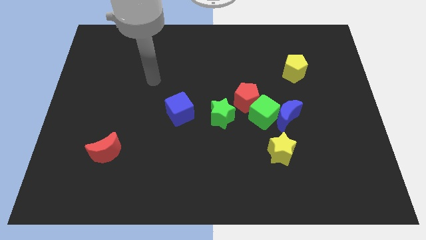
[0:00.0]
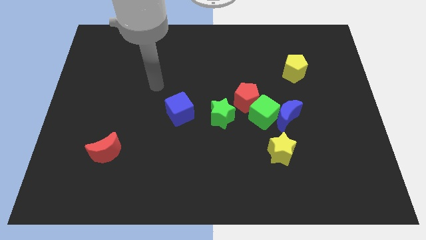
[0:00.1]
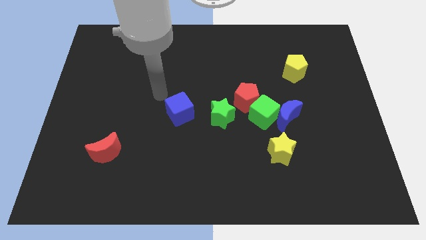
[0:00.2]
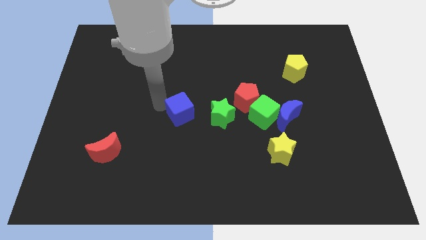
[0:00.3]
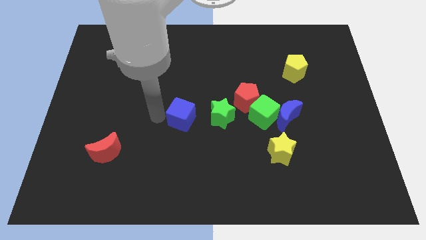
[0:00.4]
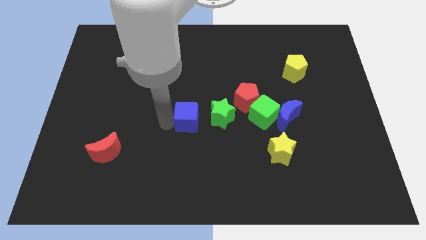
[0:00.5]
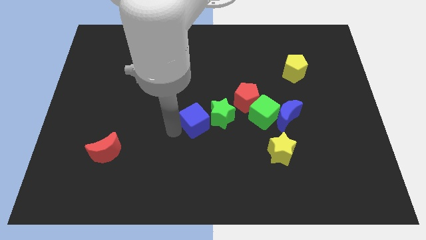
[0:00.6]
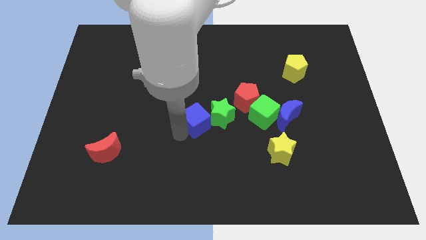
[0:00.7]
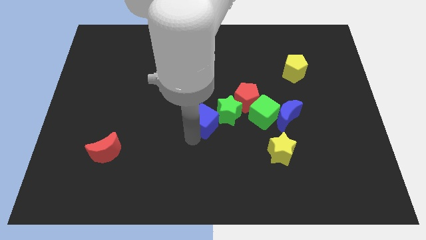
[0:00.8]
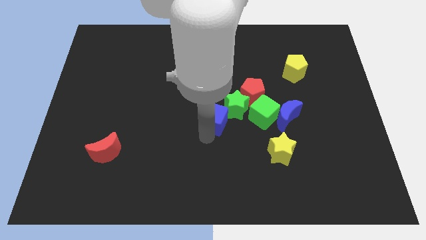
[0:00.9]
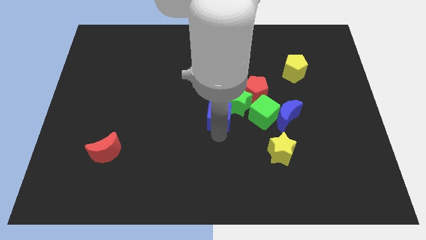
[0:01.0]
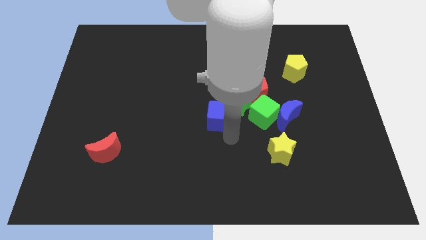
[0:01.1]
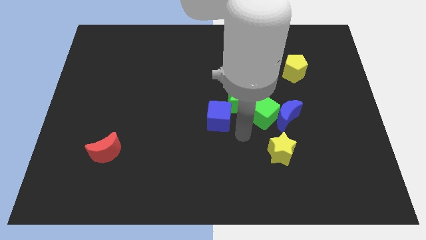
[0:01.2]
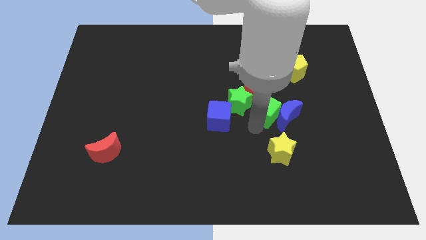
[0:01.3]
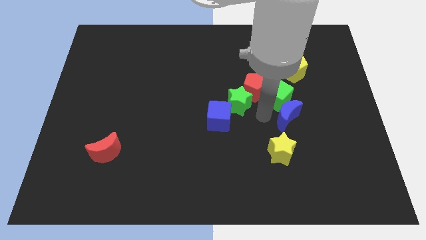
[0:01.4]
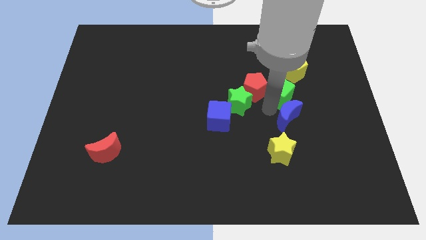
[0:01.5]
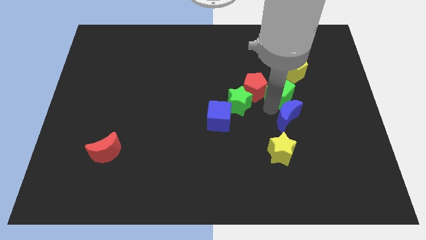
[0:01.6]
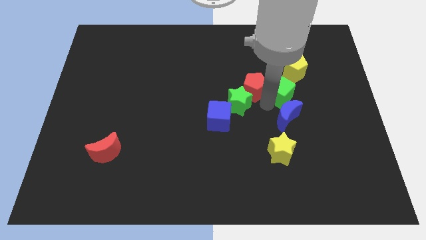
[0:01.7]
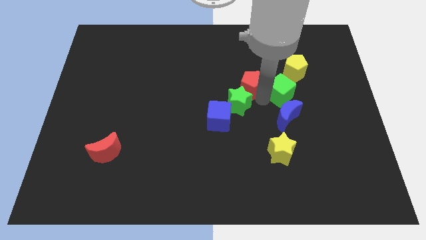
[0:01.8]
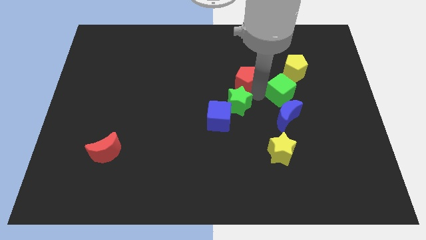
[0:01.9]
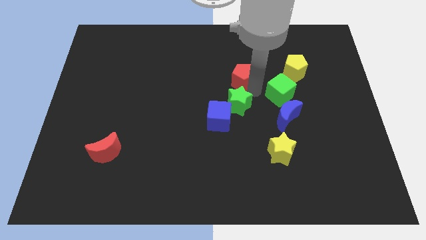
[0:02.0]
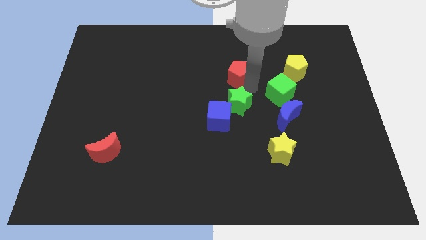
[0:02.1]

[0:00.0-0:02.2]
pull the red pentagon apart from the group of blocks

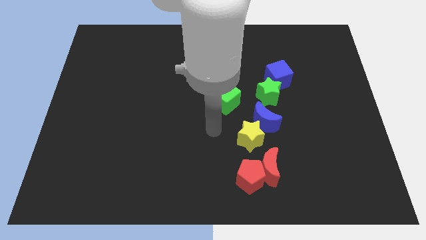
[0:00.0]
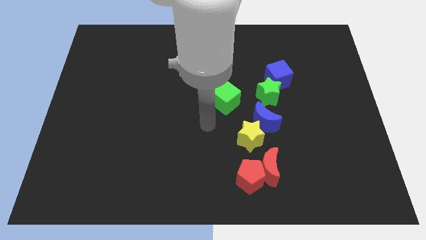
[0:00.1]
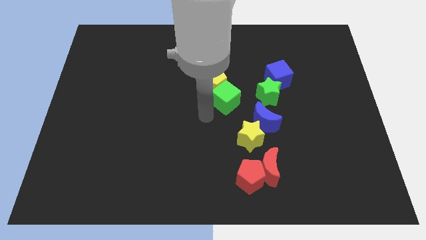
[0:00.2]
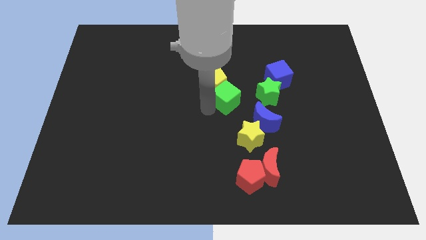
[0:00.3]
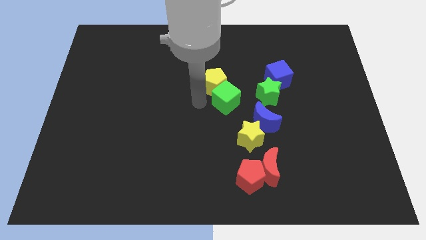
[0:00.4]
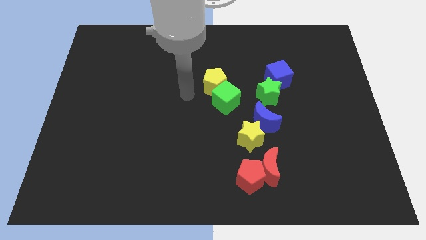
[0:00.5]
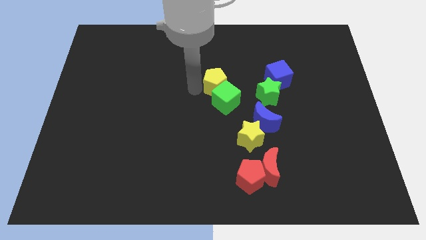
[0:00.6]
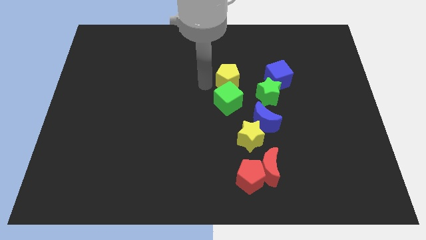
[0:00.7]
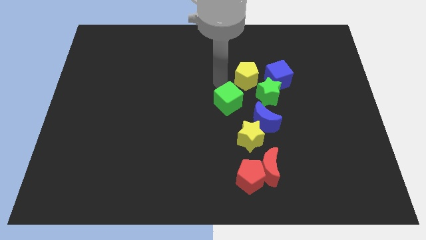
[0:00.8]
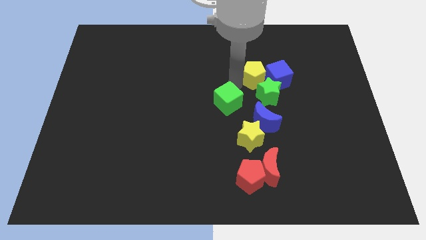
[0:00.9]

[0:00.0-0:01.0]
pull the green cube apart from the yellow pentagon

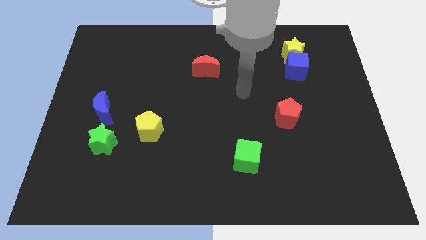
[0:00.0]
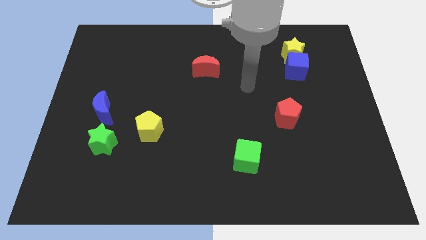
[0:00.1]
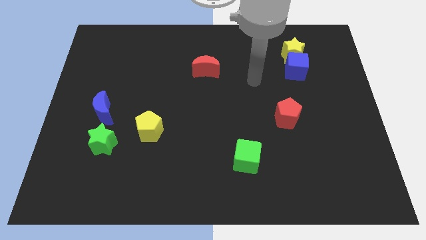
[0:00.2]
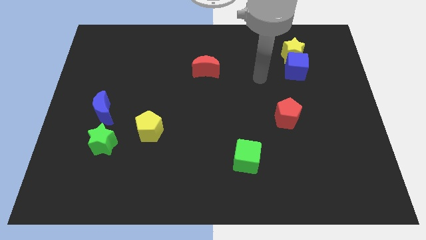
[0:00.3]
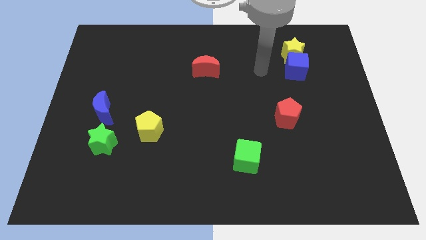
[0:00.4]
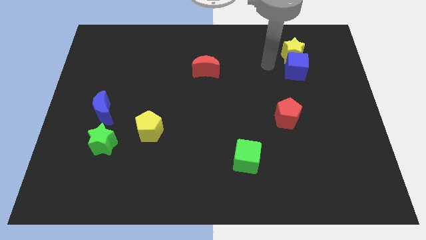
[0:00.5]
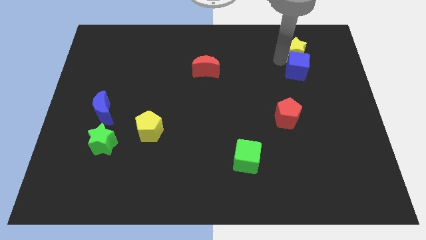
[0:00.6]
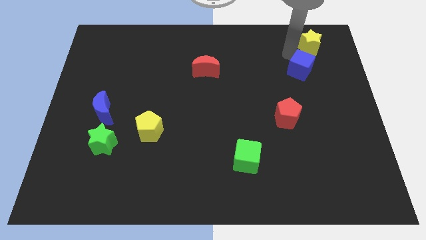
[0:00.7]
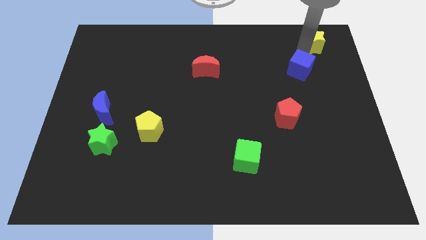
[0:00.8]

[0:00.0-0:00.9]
pull the blue cube apart from the yellow star

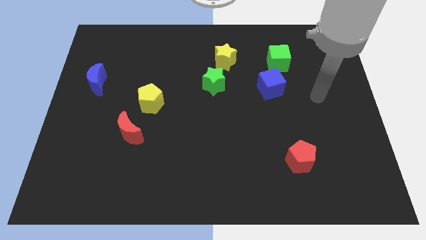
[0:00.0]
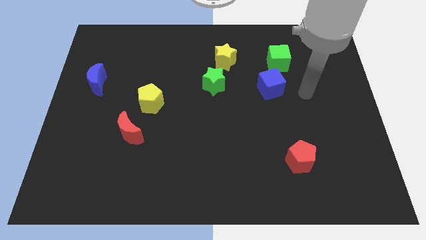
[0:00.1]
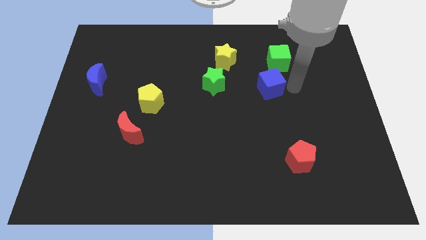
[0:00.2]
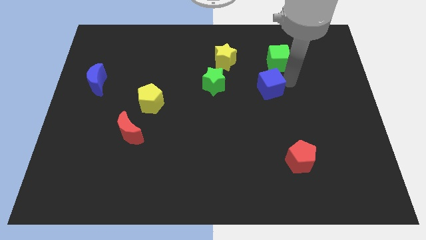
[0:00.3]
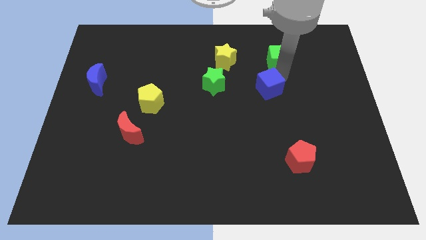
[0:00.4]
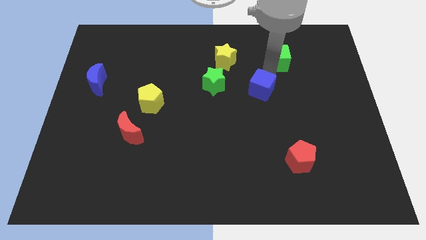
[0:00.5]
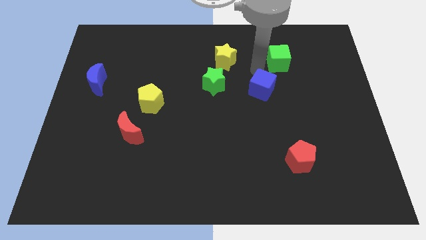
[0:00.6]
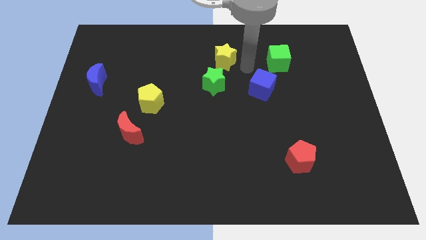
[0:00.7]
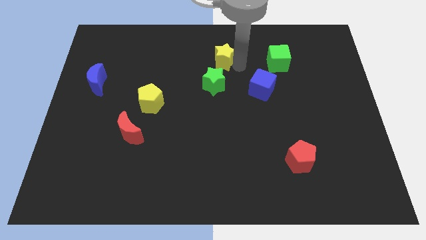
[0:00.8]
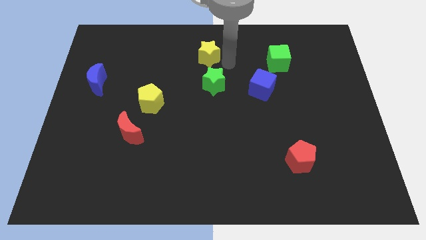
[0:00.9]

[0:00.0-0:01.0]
move the green star away from the yellow star

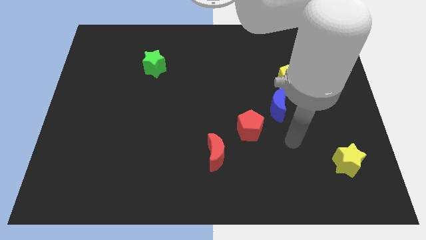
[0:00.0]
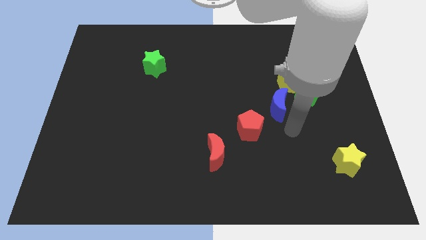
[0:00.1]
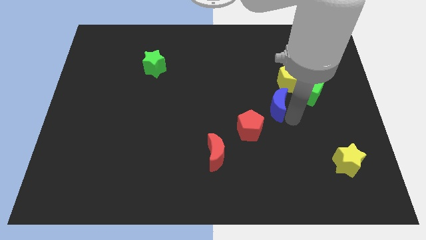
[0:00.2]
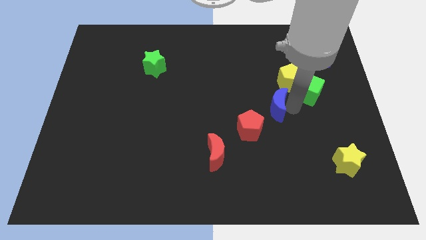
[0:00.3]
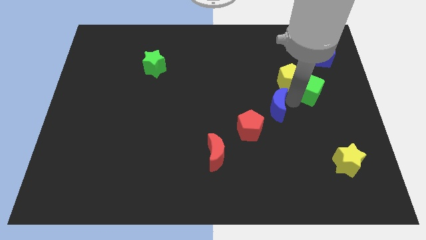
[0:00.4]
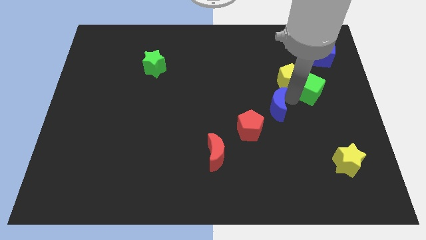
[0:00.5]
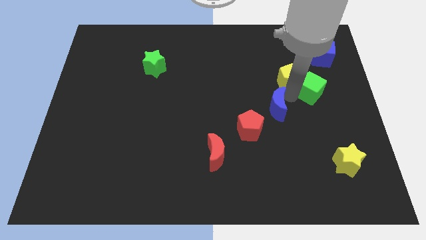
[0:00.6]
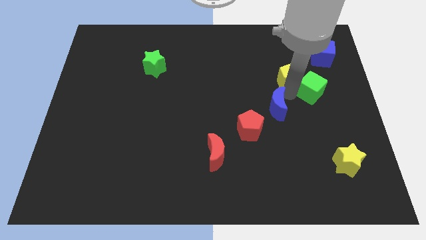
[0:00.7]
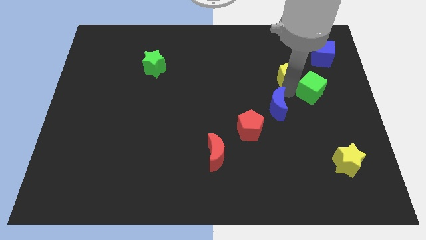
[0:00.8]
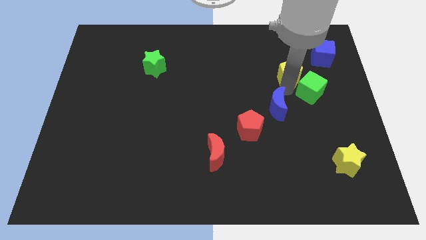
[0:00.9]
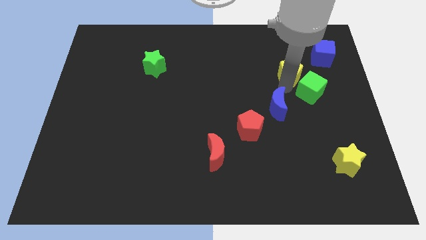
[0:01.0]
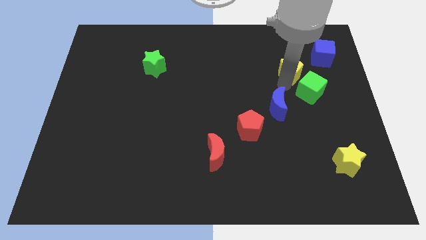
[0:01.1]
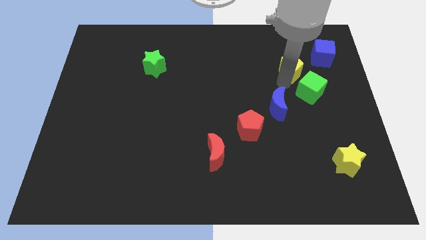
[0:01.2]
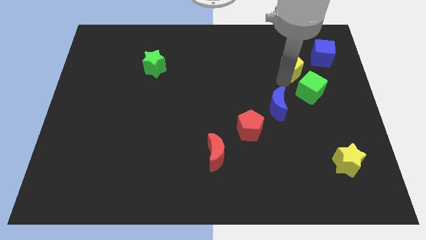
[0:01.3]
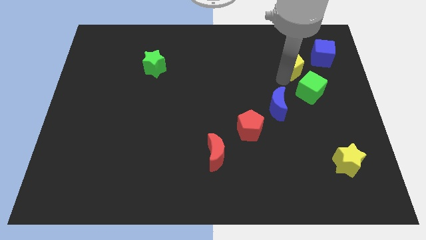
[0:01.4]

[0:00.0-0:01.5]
pull the yellow pentagon apart from the green cube and blue moon

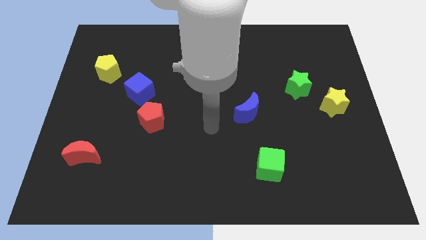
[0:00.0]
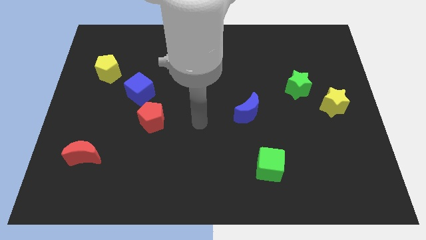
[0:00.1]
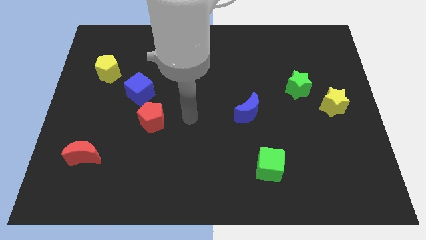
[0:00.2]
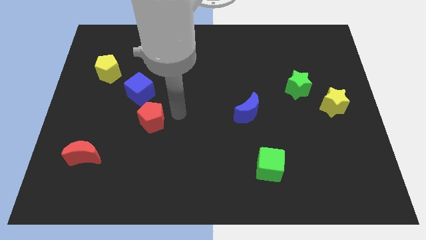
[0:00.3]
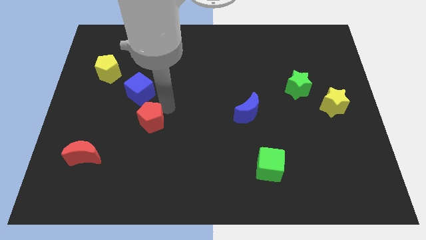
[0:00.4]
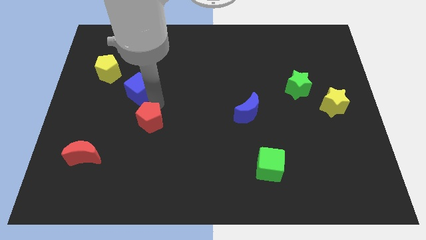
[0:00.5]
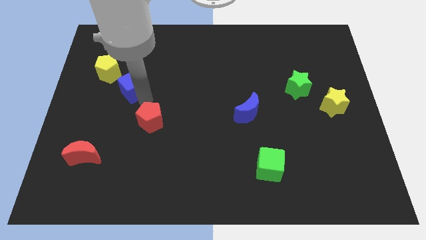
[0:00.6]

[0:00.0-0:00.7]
pull the red pentagon apart from the blue cube

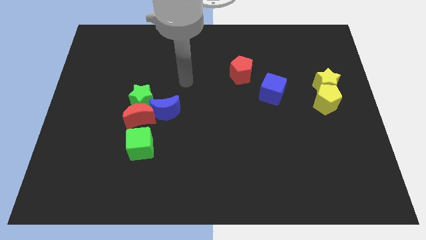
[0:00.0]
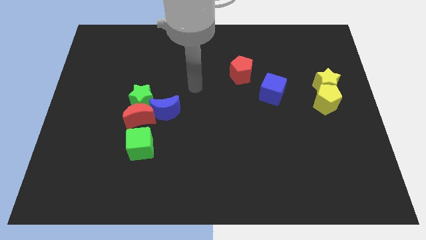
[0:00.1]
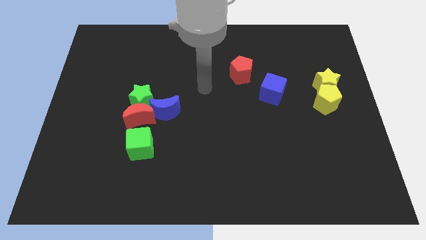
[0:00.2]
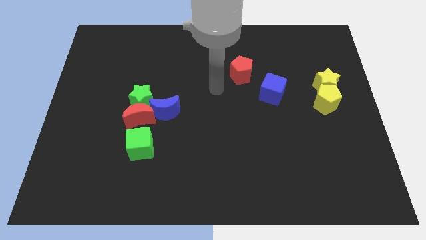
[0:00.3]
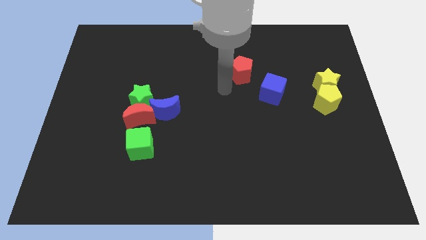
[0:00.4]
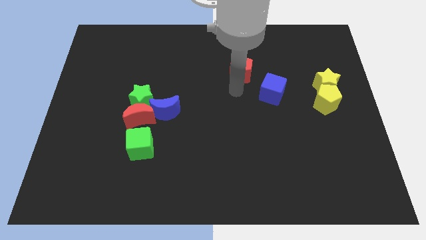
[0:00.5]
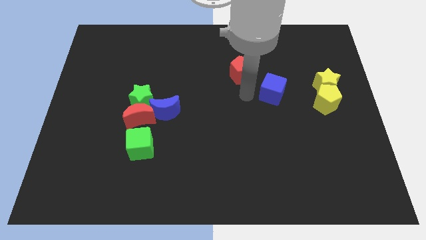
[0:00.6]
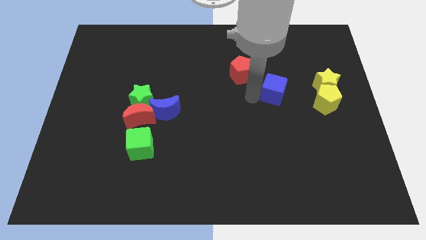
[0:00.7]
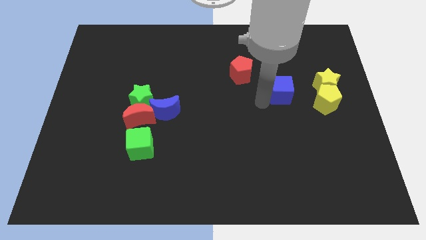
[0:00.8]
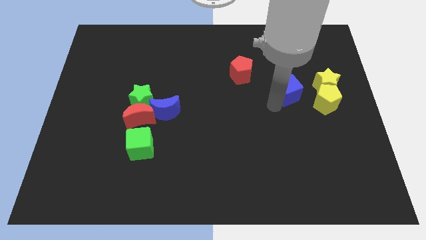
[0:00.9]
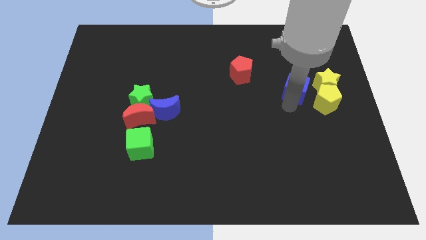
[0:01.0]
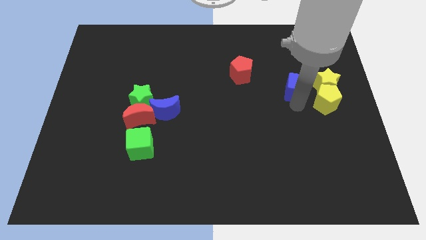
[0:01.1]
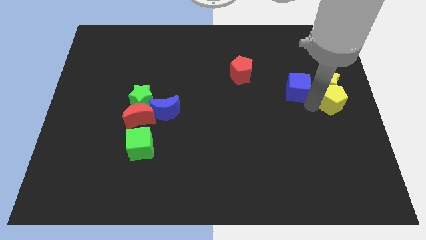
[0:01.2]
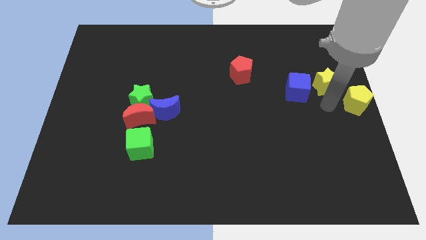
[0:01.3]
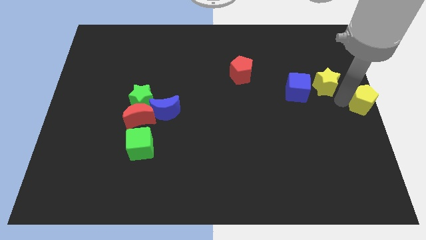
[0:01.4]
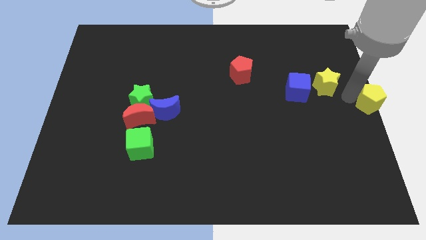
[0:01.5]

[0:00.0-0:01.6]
pull the yellow star apart from the yellow pentagon

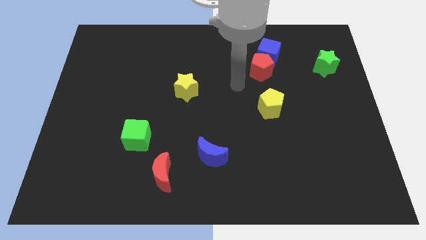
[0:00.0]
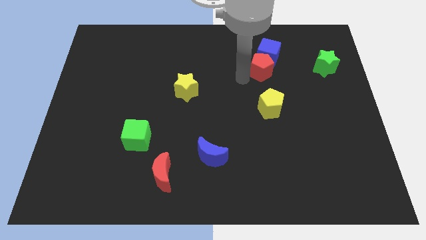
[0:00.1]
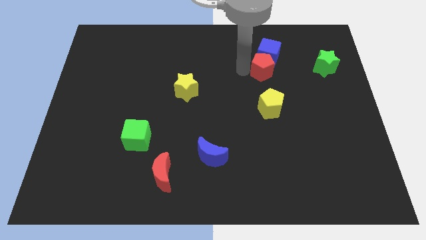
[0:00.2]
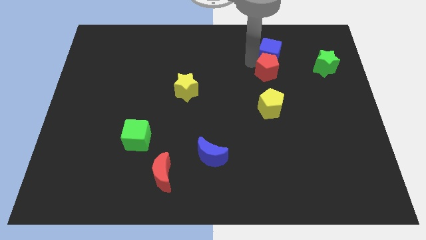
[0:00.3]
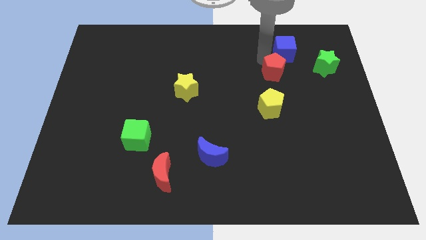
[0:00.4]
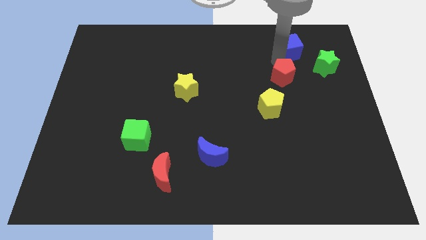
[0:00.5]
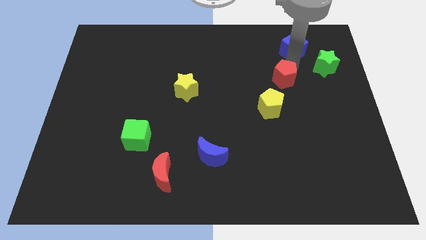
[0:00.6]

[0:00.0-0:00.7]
move the red pentagon away from the blue cube
